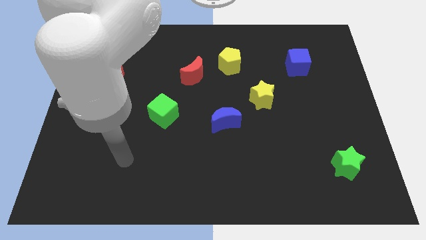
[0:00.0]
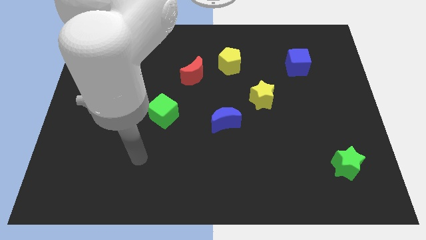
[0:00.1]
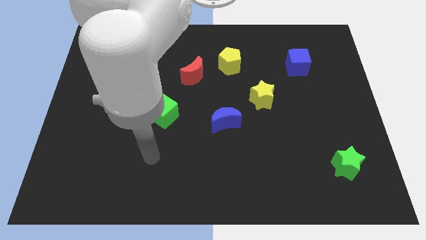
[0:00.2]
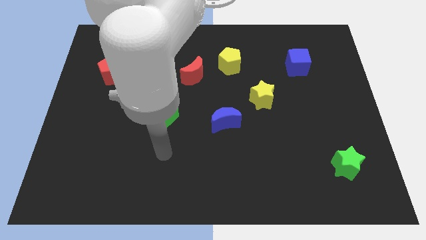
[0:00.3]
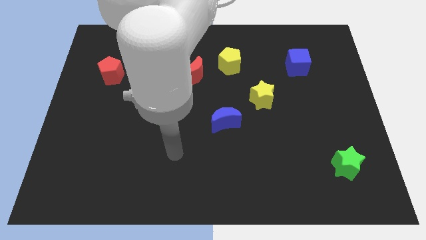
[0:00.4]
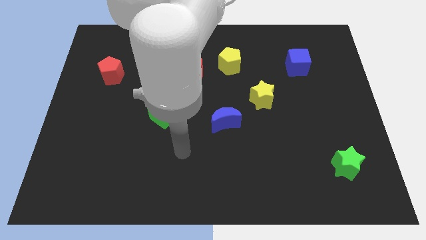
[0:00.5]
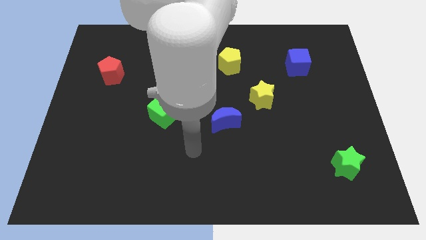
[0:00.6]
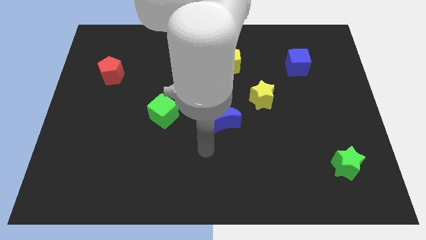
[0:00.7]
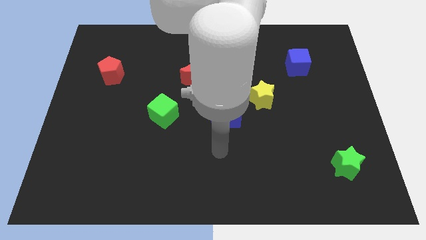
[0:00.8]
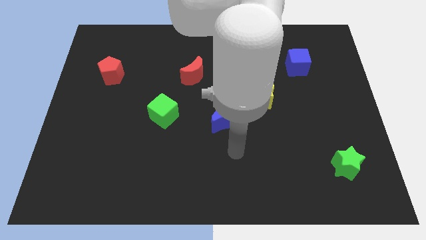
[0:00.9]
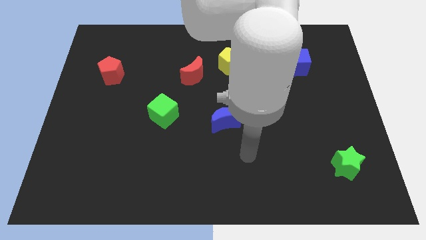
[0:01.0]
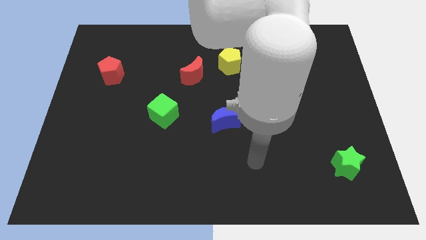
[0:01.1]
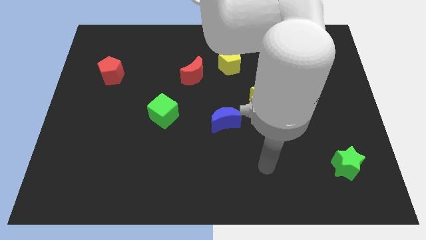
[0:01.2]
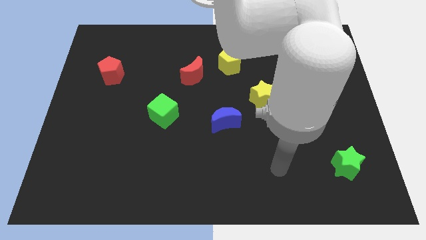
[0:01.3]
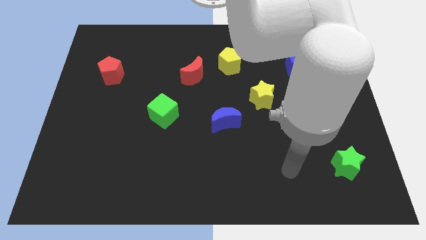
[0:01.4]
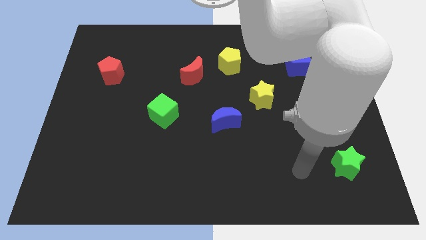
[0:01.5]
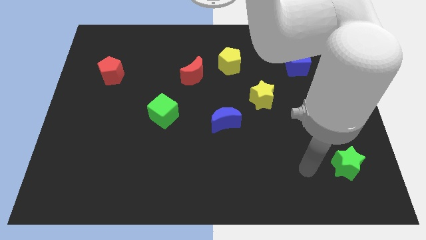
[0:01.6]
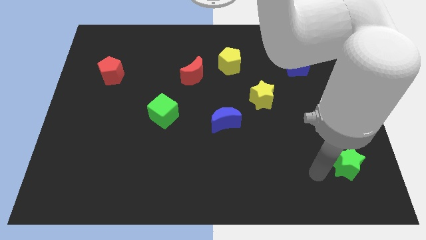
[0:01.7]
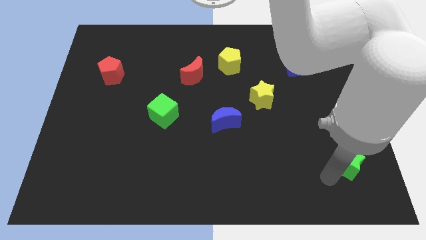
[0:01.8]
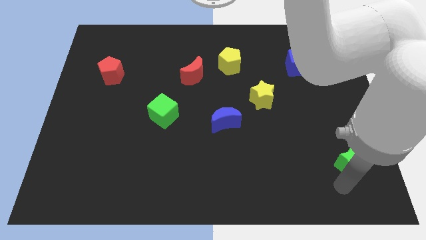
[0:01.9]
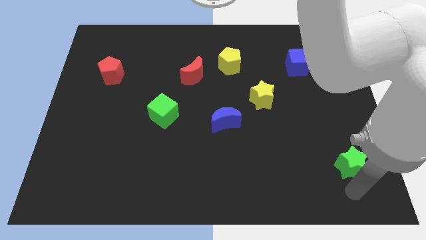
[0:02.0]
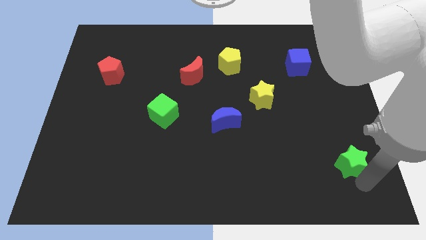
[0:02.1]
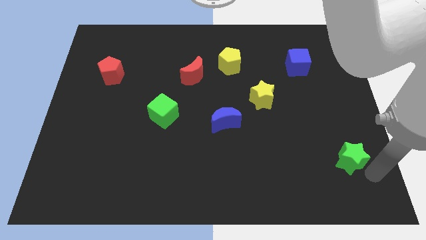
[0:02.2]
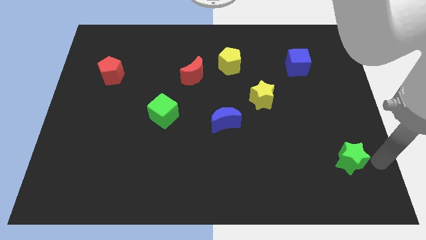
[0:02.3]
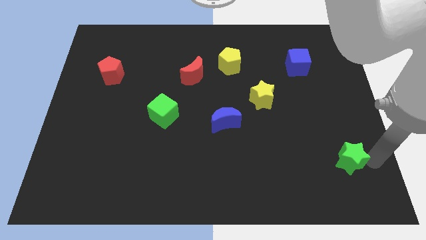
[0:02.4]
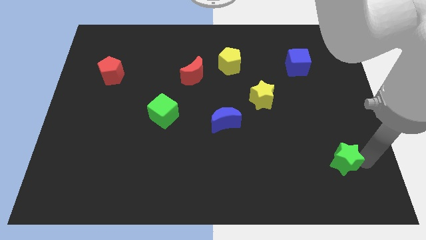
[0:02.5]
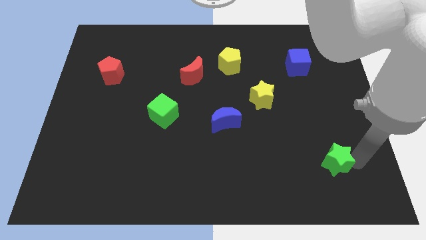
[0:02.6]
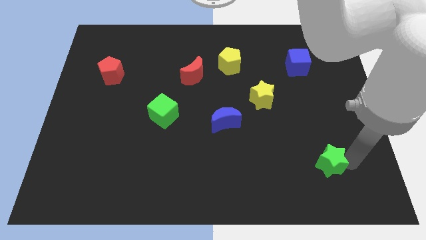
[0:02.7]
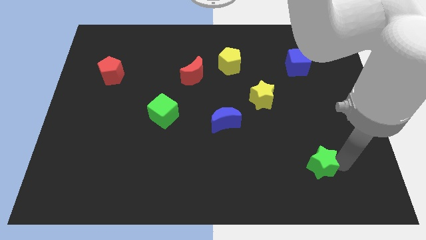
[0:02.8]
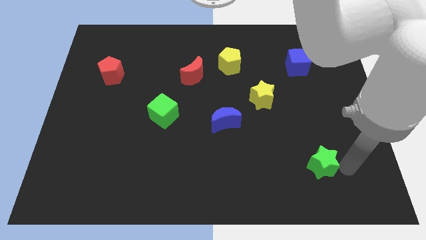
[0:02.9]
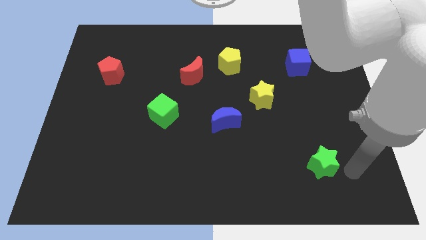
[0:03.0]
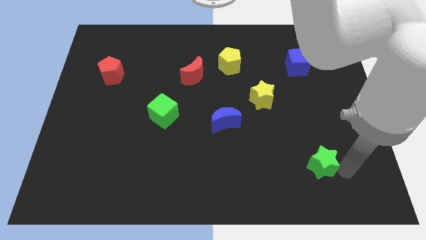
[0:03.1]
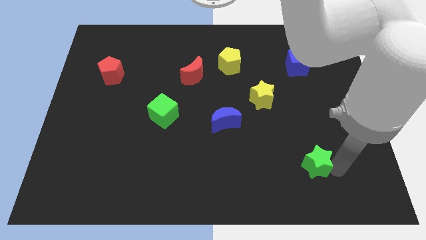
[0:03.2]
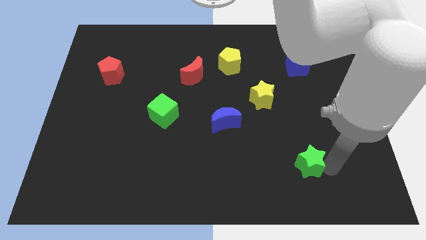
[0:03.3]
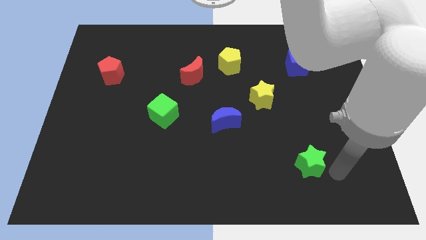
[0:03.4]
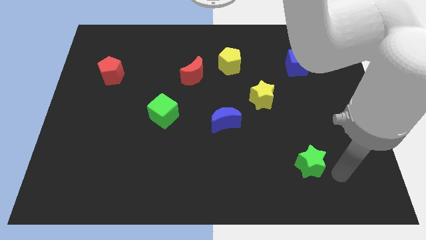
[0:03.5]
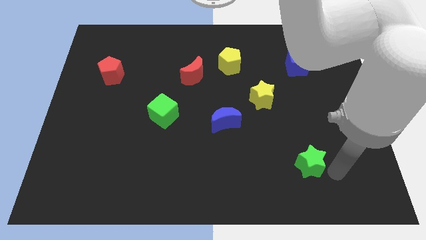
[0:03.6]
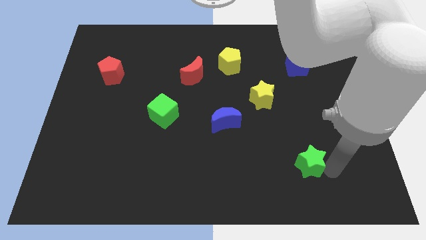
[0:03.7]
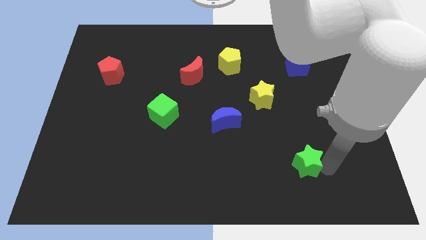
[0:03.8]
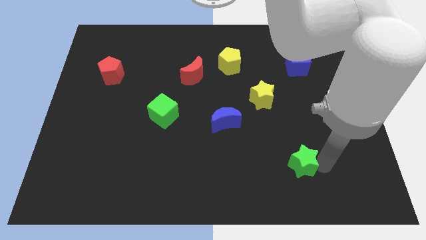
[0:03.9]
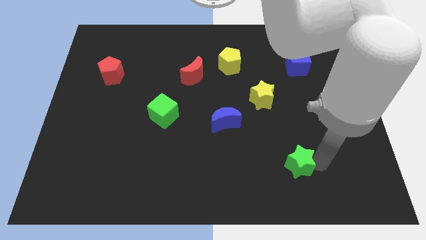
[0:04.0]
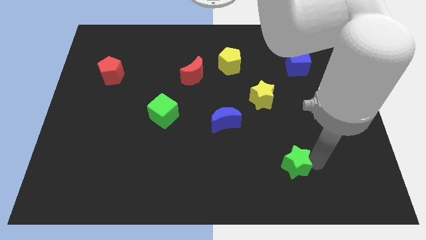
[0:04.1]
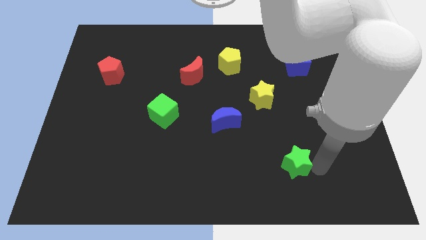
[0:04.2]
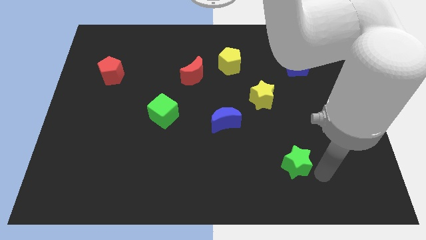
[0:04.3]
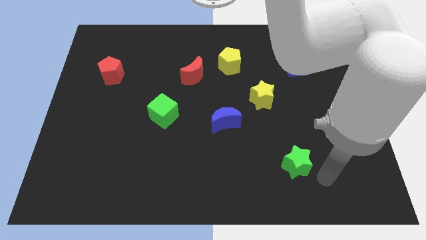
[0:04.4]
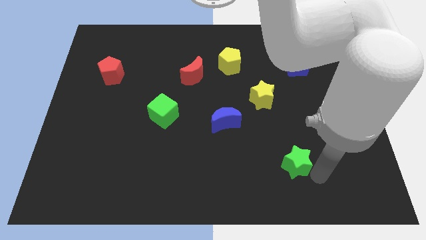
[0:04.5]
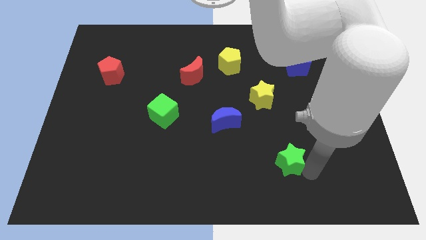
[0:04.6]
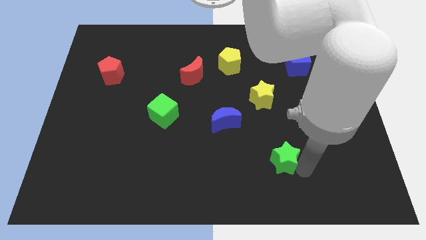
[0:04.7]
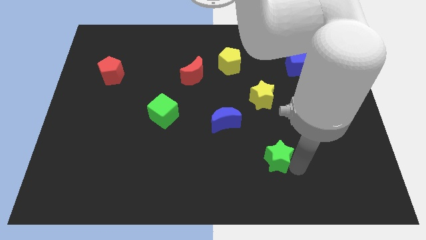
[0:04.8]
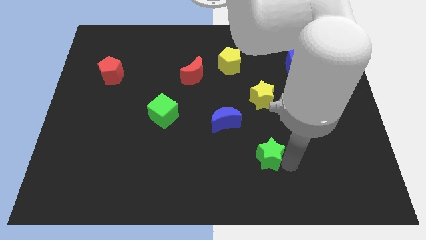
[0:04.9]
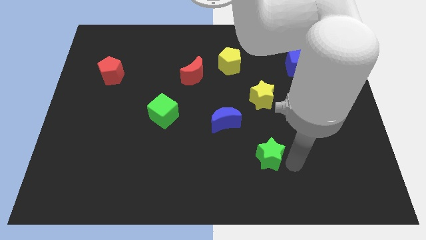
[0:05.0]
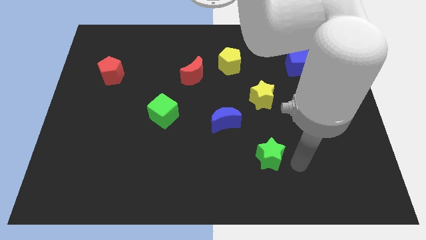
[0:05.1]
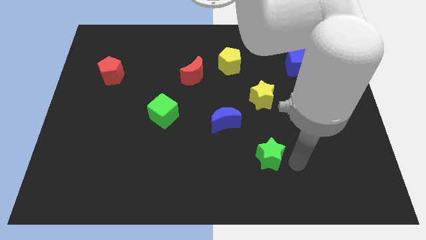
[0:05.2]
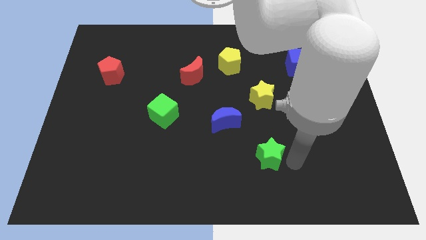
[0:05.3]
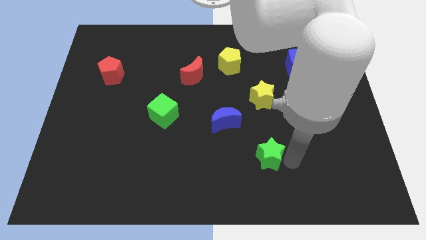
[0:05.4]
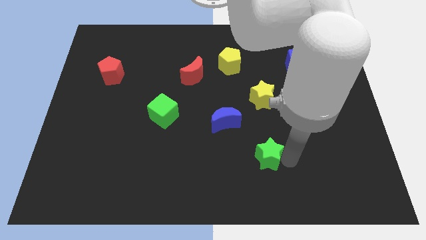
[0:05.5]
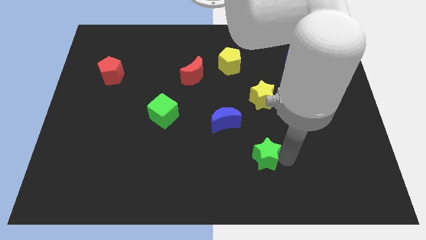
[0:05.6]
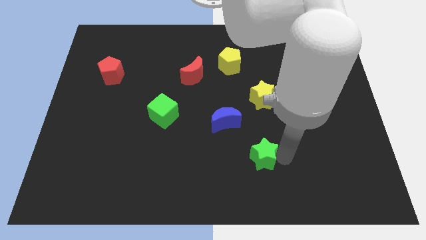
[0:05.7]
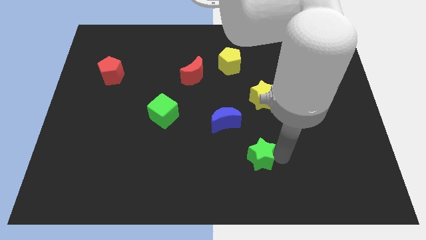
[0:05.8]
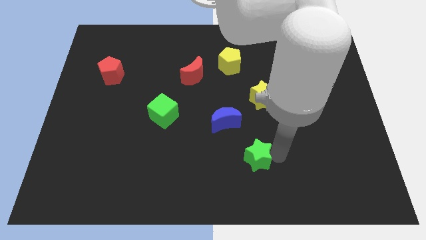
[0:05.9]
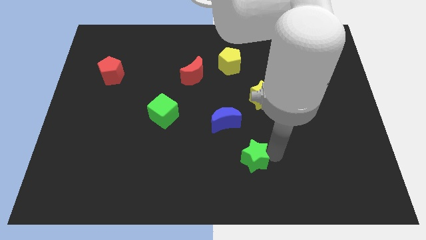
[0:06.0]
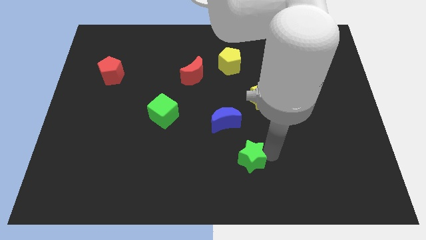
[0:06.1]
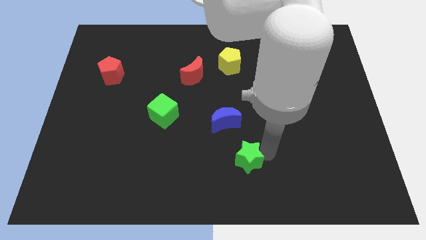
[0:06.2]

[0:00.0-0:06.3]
move the green star to the left

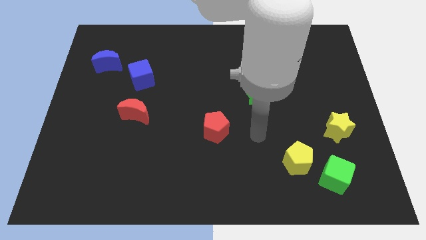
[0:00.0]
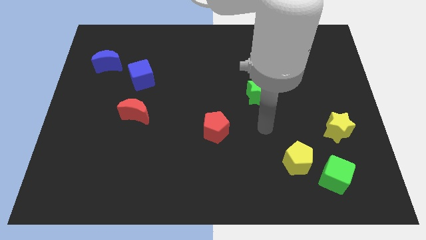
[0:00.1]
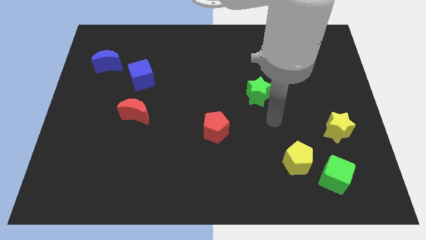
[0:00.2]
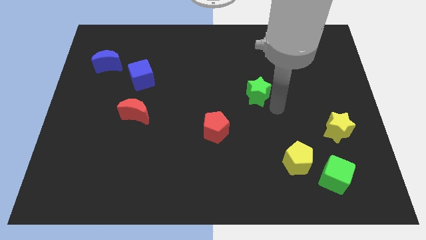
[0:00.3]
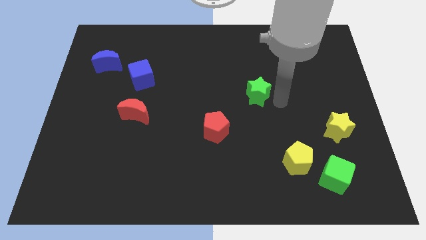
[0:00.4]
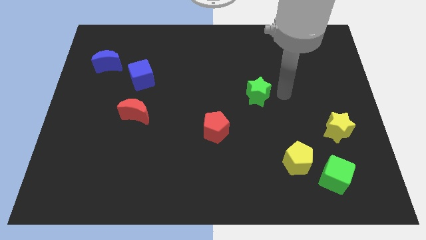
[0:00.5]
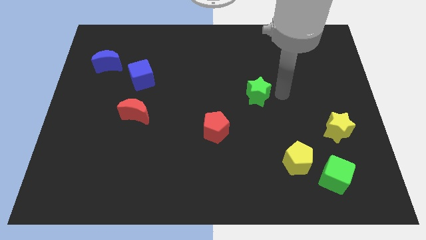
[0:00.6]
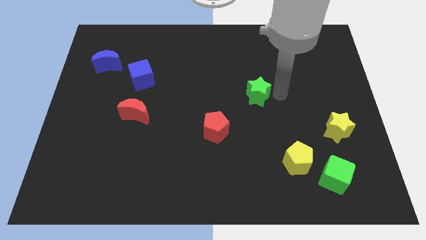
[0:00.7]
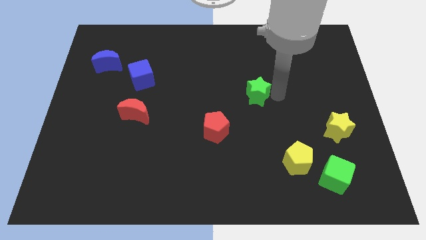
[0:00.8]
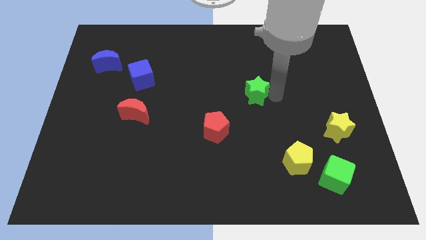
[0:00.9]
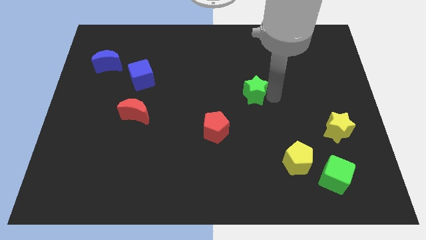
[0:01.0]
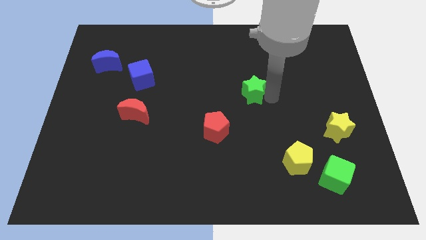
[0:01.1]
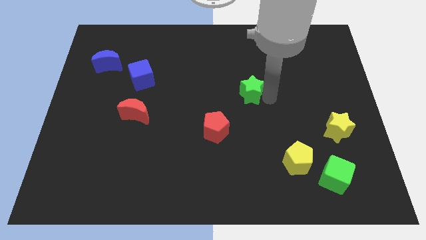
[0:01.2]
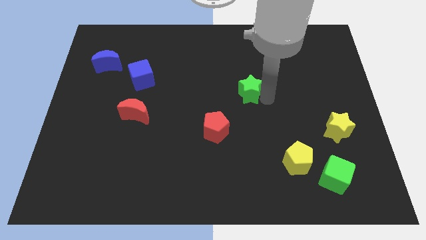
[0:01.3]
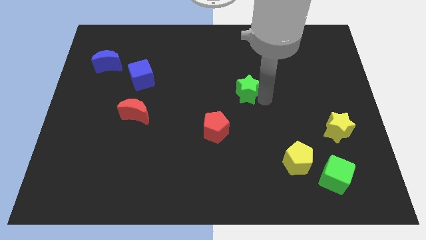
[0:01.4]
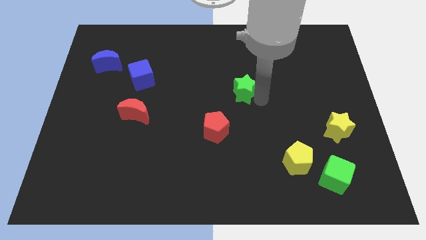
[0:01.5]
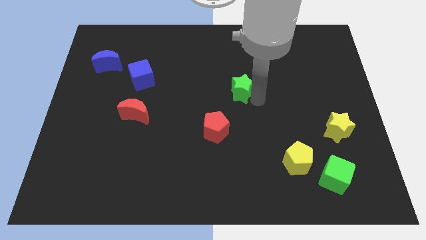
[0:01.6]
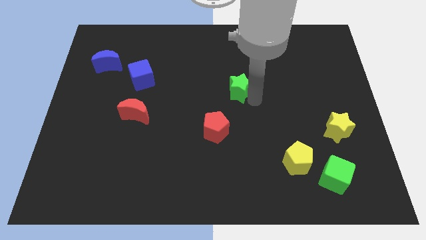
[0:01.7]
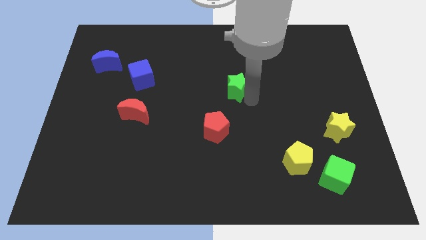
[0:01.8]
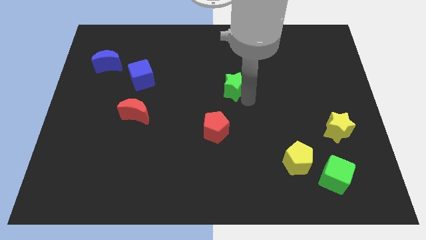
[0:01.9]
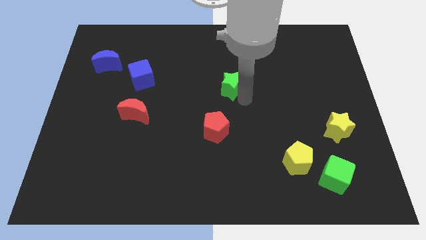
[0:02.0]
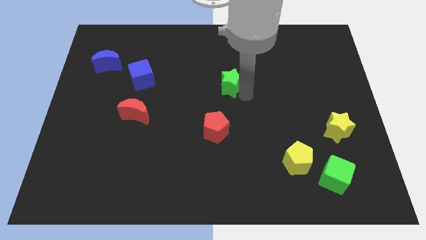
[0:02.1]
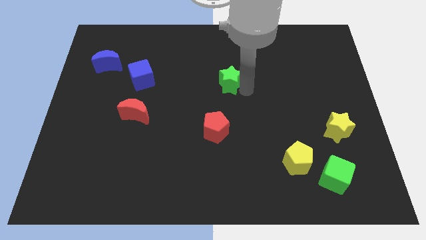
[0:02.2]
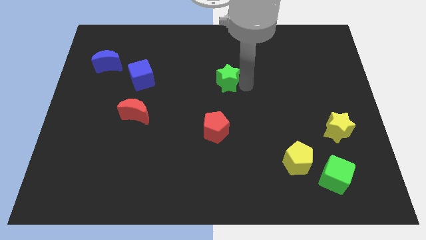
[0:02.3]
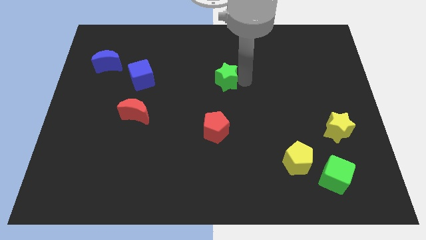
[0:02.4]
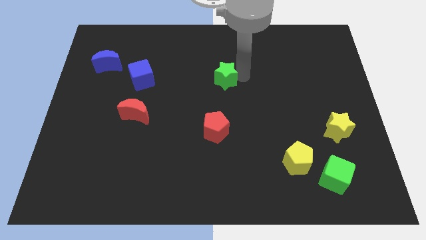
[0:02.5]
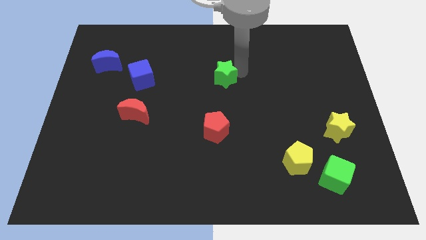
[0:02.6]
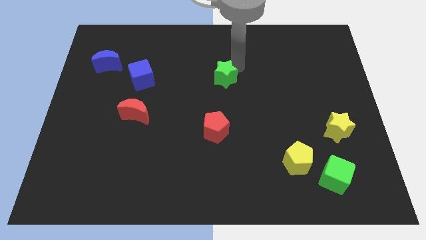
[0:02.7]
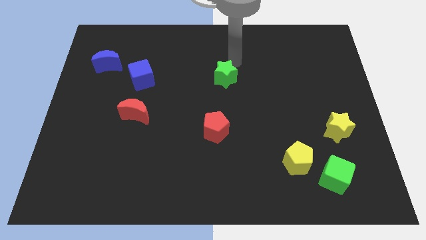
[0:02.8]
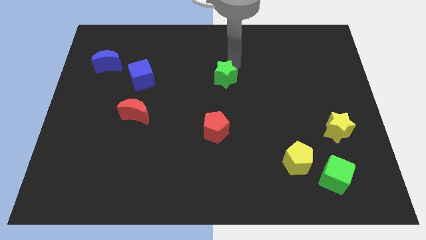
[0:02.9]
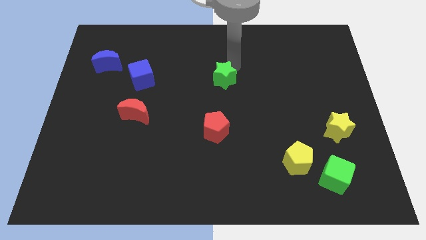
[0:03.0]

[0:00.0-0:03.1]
move the green star a bit to the left
